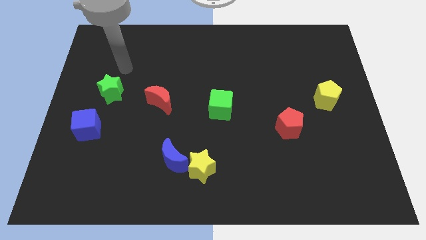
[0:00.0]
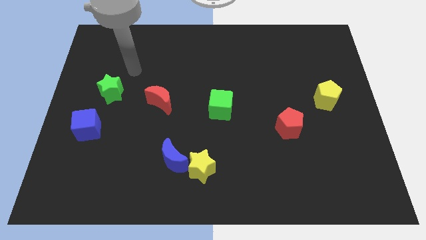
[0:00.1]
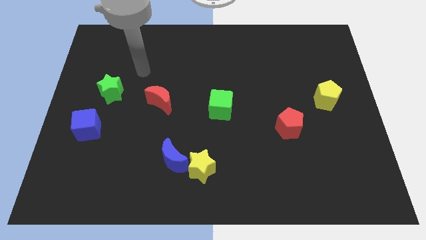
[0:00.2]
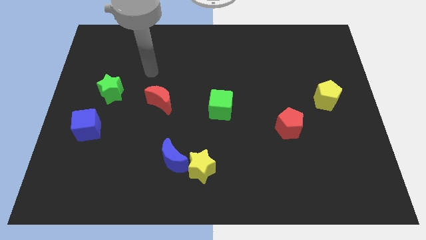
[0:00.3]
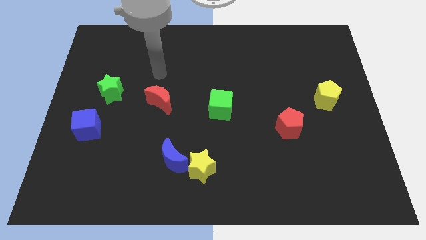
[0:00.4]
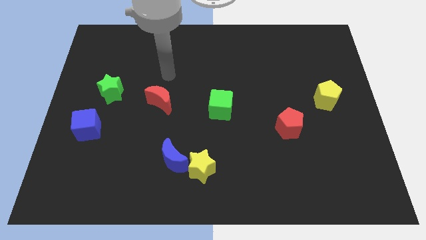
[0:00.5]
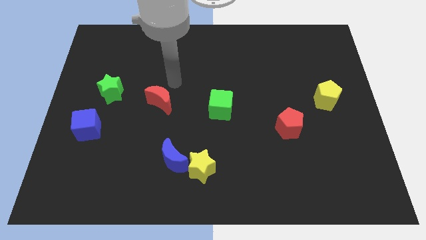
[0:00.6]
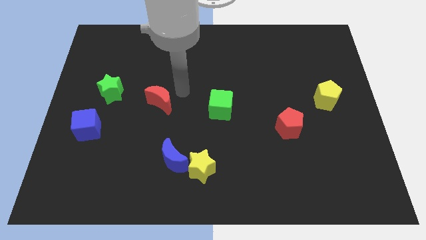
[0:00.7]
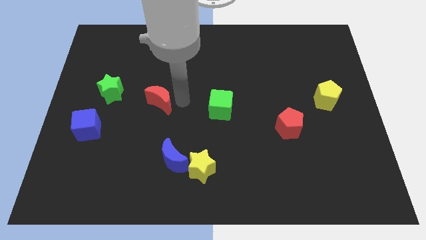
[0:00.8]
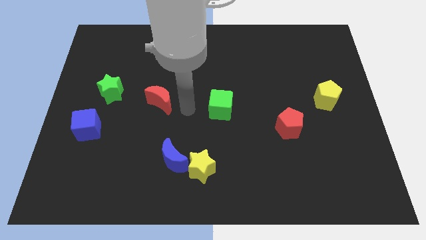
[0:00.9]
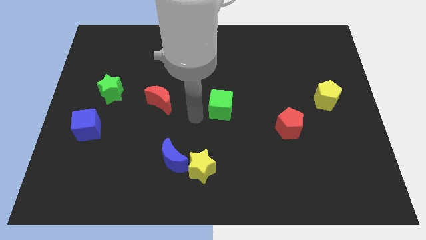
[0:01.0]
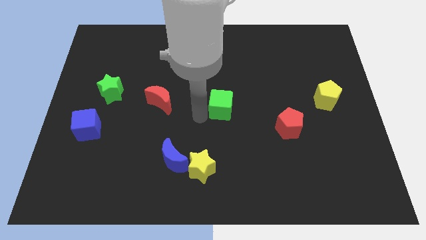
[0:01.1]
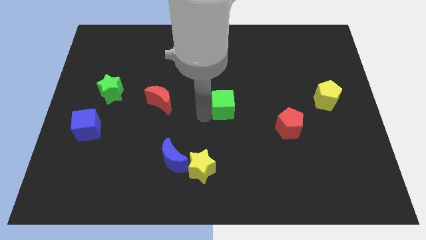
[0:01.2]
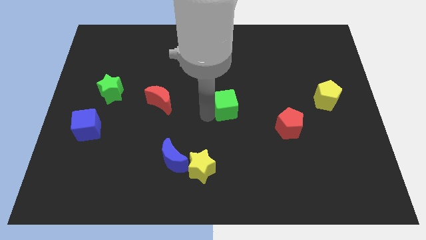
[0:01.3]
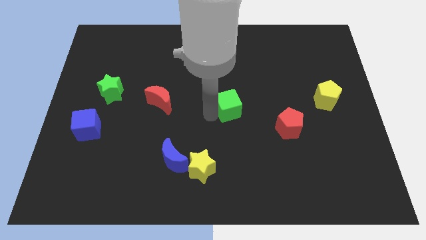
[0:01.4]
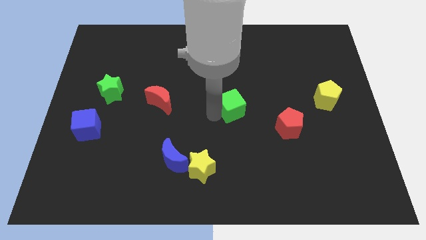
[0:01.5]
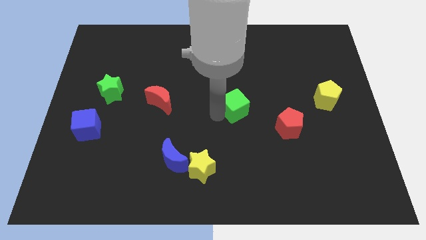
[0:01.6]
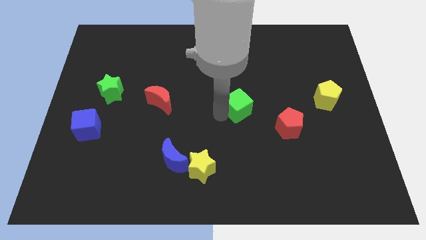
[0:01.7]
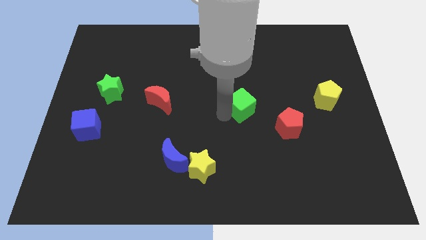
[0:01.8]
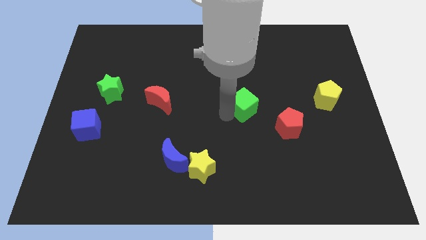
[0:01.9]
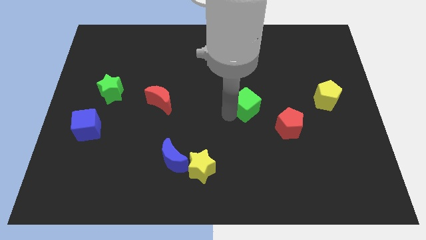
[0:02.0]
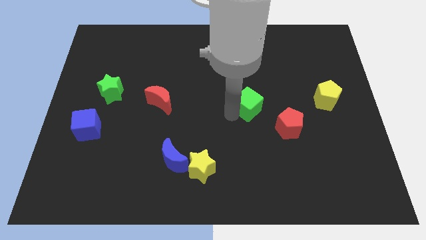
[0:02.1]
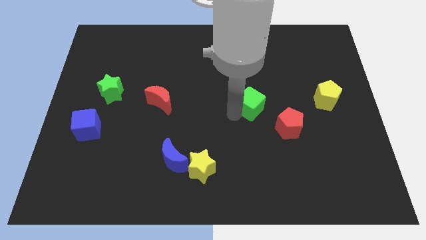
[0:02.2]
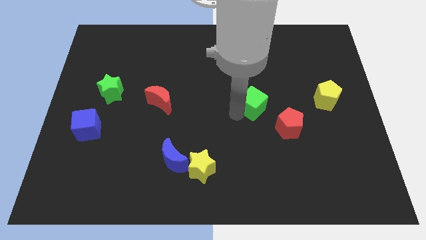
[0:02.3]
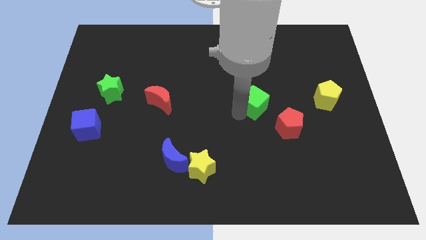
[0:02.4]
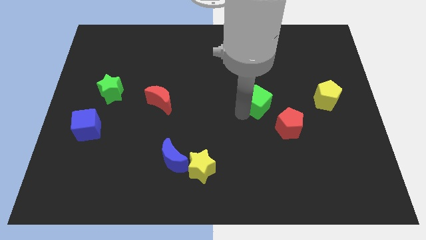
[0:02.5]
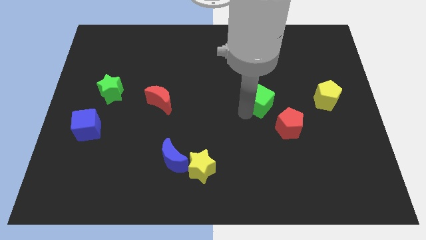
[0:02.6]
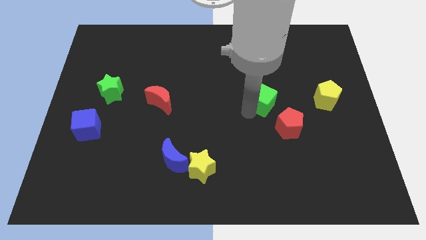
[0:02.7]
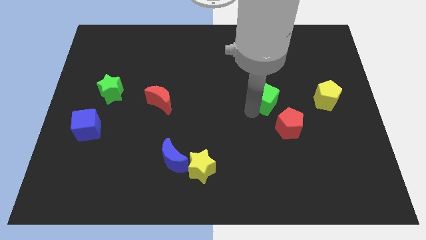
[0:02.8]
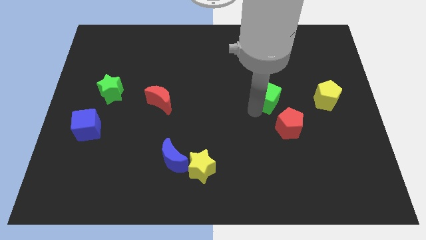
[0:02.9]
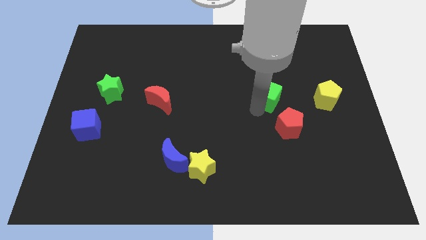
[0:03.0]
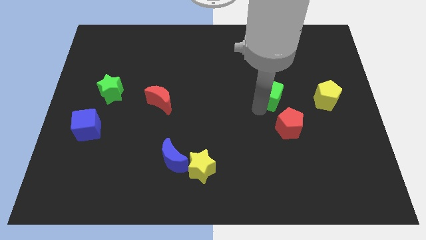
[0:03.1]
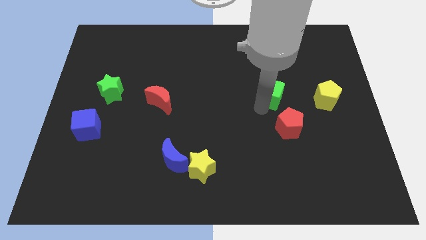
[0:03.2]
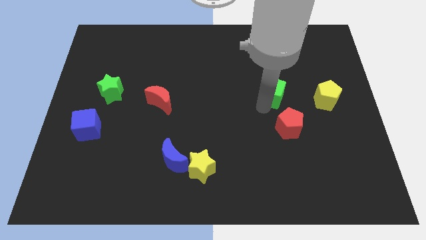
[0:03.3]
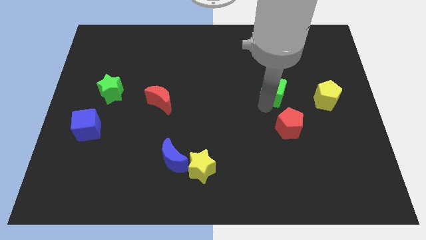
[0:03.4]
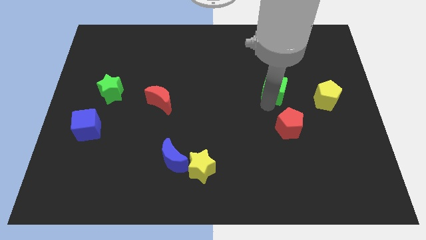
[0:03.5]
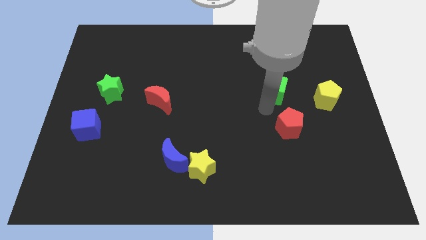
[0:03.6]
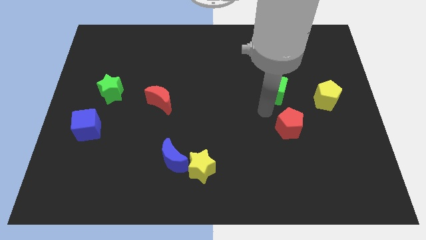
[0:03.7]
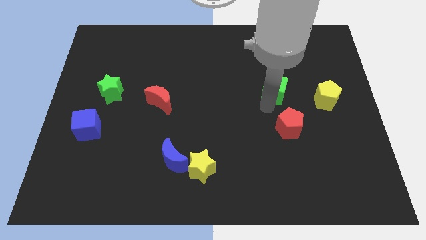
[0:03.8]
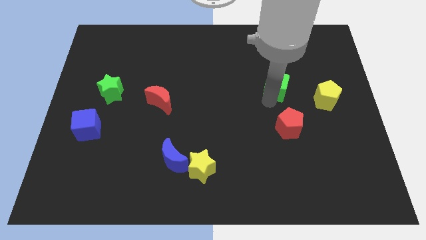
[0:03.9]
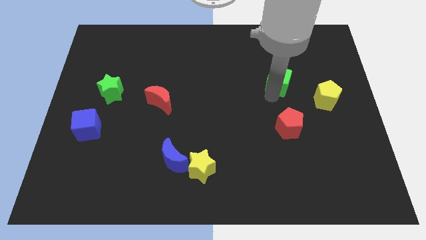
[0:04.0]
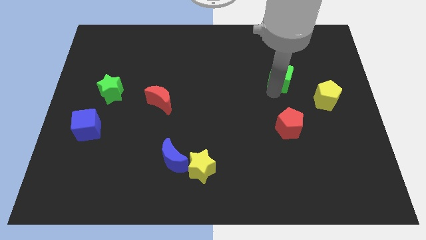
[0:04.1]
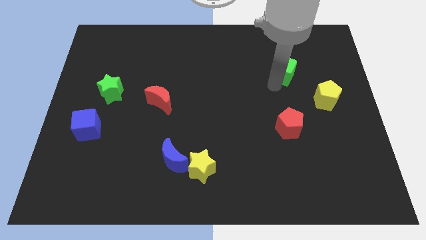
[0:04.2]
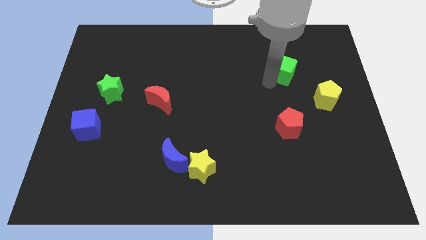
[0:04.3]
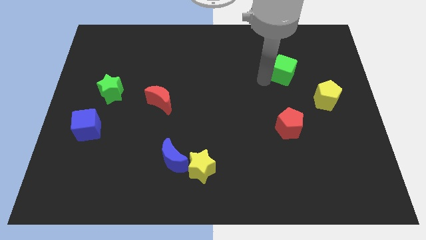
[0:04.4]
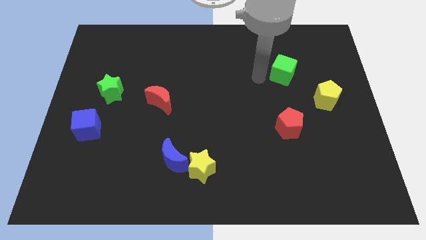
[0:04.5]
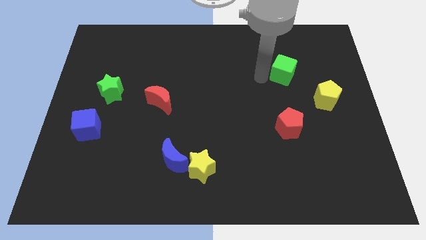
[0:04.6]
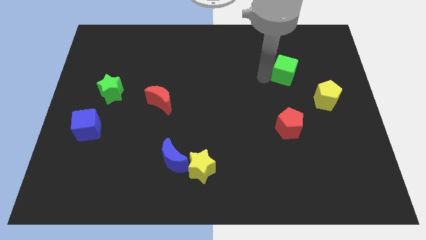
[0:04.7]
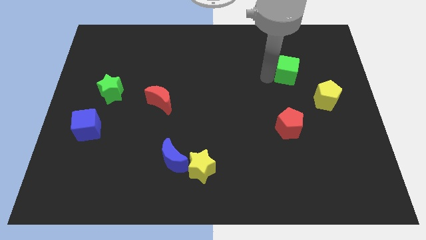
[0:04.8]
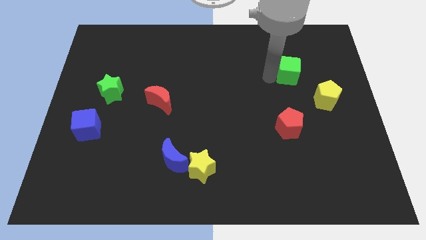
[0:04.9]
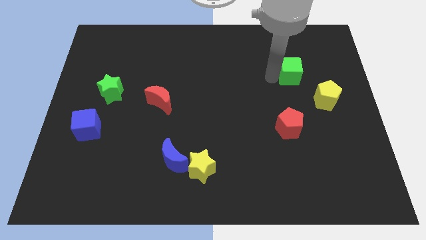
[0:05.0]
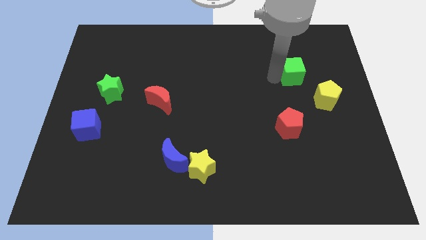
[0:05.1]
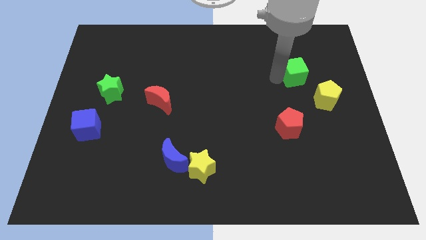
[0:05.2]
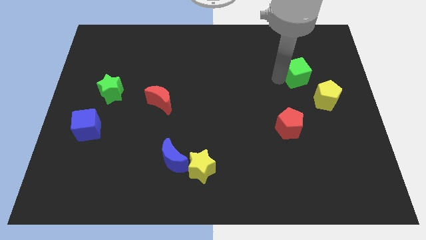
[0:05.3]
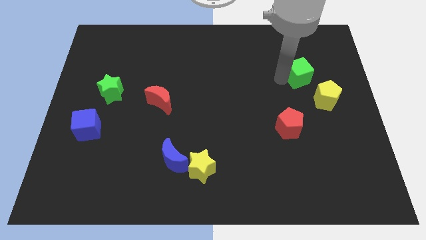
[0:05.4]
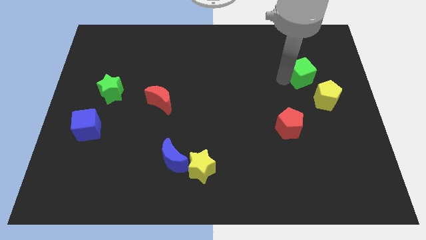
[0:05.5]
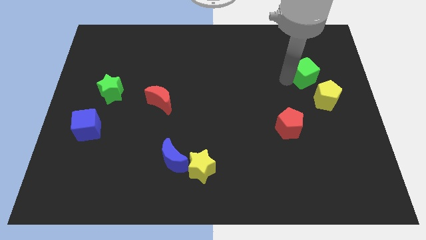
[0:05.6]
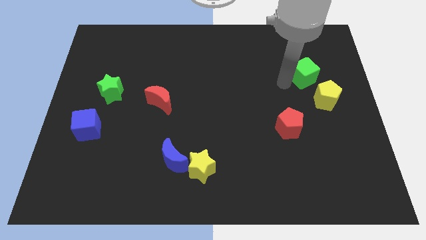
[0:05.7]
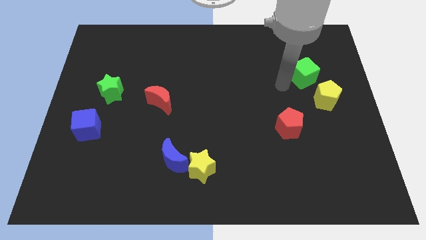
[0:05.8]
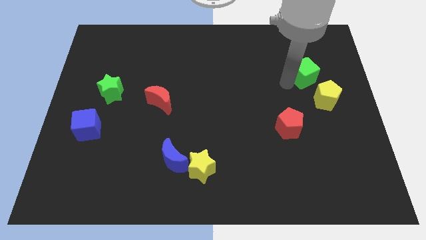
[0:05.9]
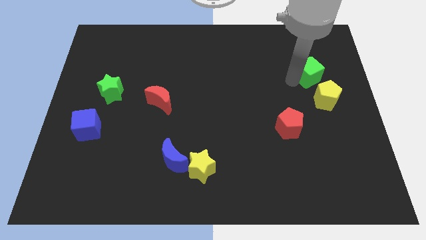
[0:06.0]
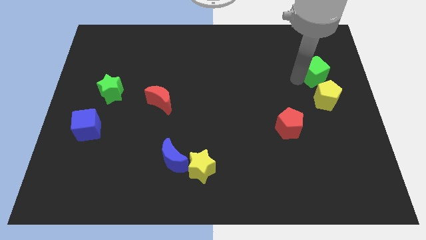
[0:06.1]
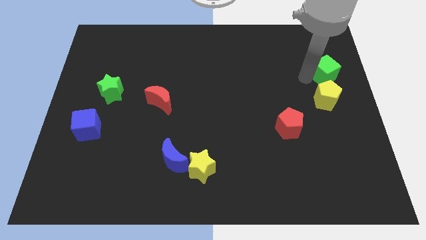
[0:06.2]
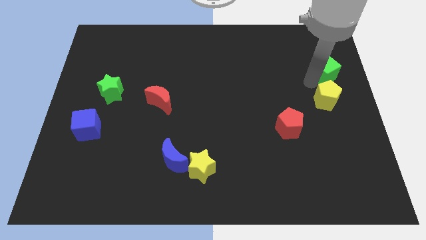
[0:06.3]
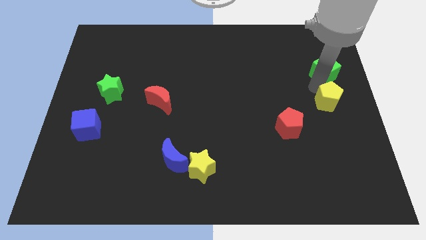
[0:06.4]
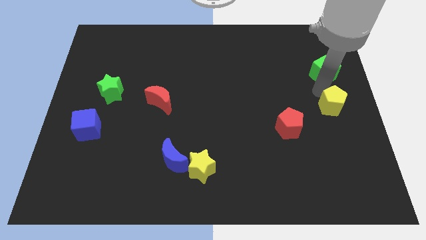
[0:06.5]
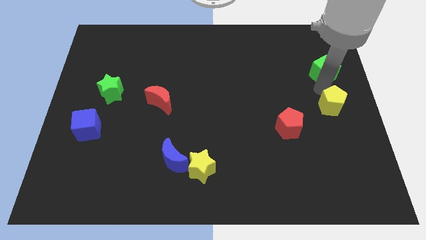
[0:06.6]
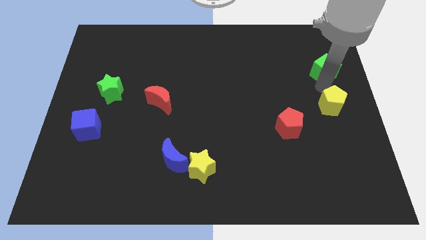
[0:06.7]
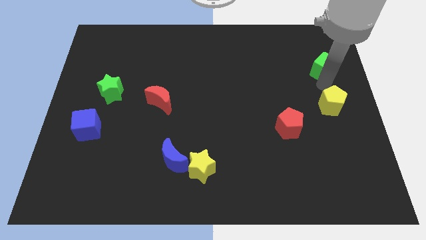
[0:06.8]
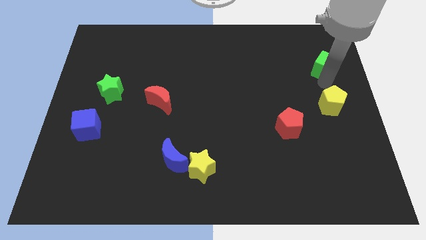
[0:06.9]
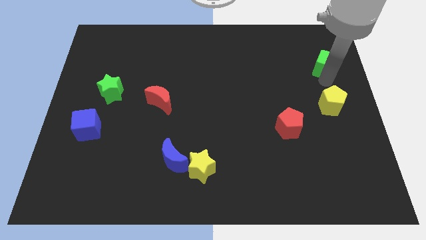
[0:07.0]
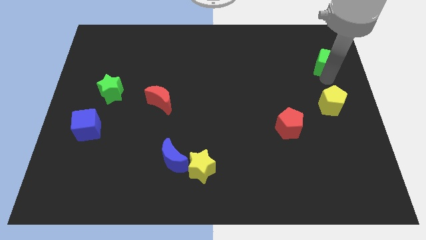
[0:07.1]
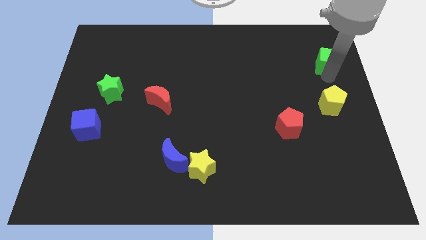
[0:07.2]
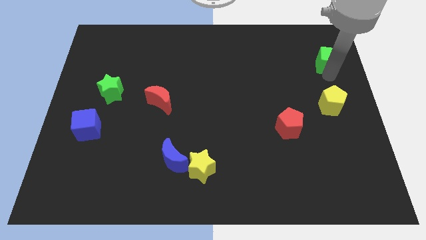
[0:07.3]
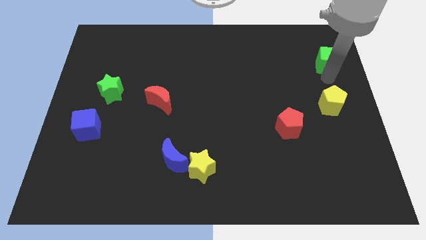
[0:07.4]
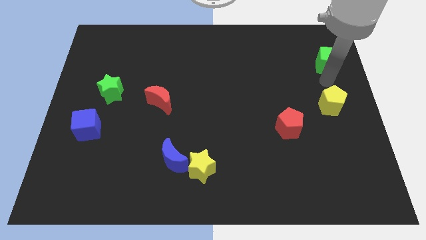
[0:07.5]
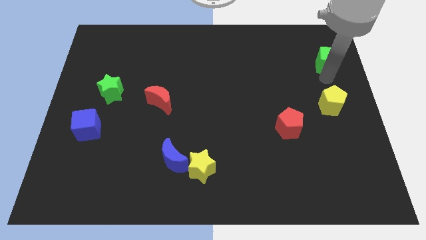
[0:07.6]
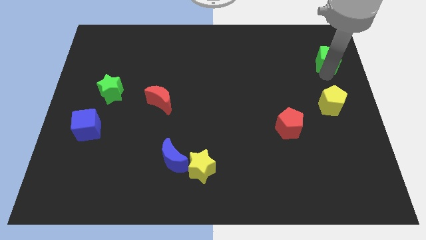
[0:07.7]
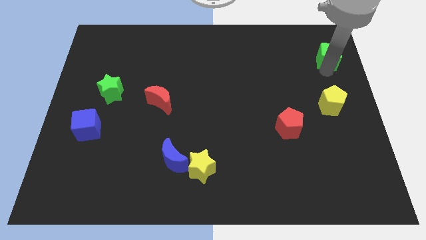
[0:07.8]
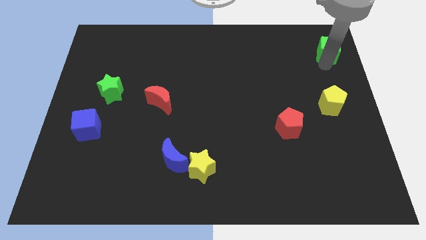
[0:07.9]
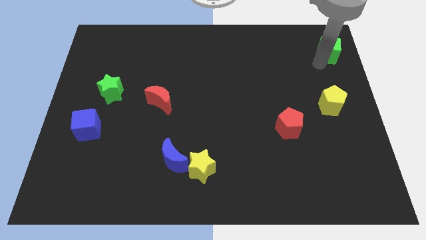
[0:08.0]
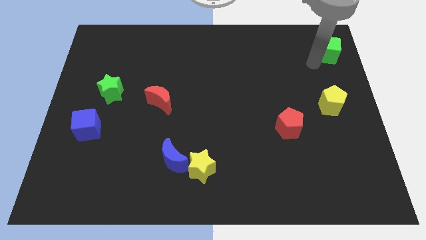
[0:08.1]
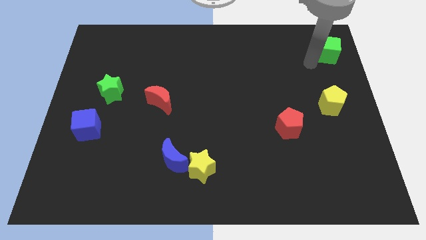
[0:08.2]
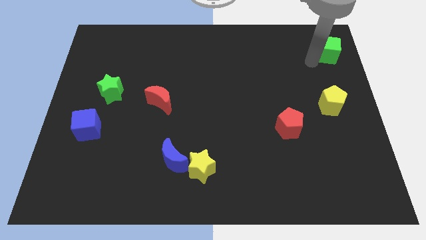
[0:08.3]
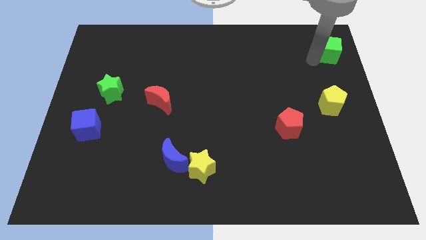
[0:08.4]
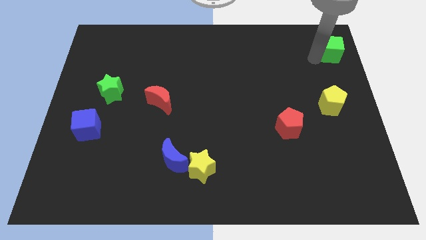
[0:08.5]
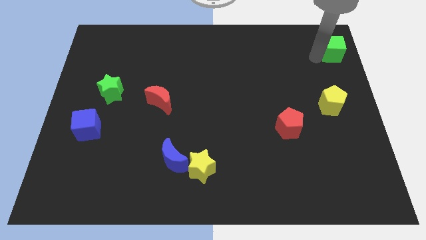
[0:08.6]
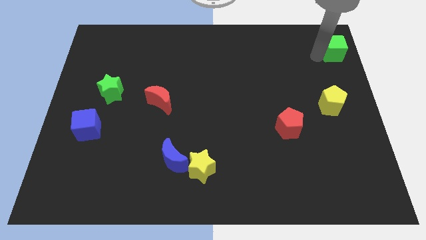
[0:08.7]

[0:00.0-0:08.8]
slide the green cube to the top right corner

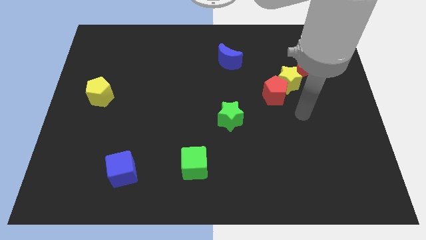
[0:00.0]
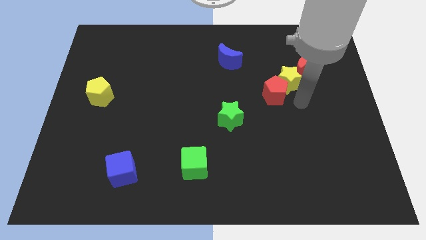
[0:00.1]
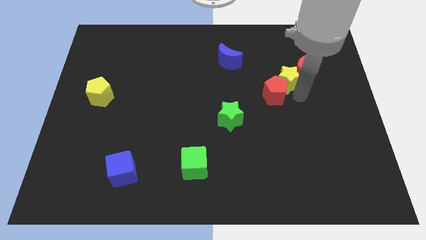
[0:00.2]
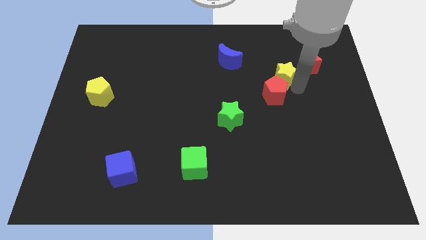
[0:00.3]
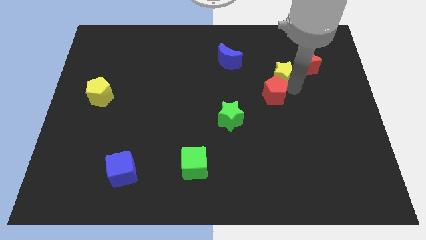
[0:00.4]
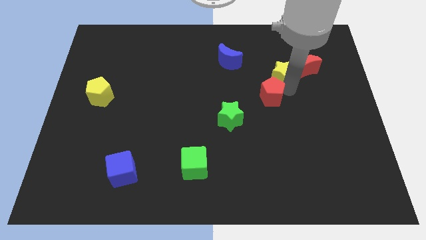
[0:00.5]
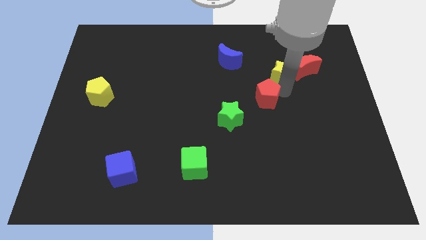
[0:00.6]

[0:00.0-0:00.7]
push the red pentagon to the middle of the board
